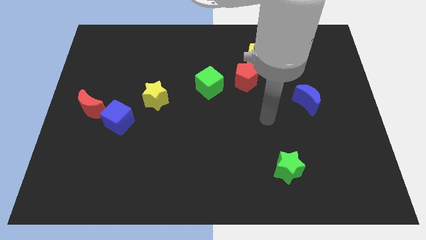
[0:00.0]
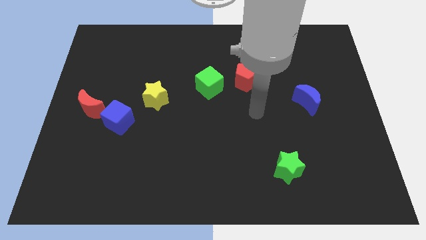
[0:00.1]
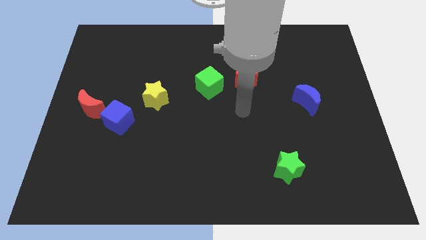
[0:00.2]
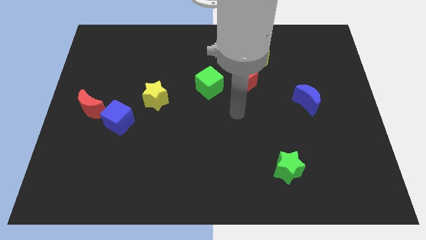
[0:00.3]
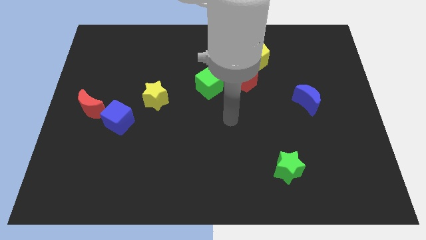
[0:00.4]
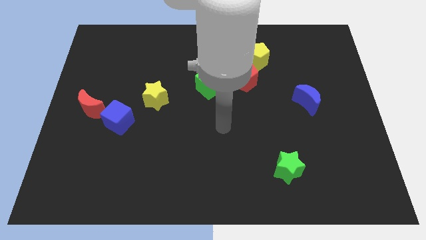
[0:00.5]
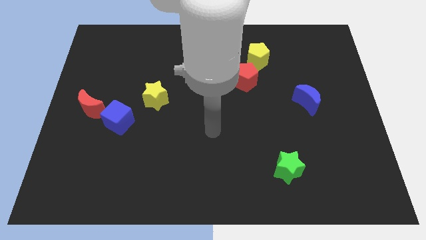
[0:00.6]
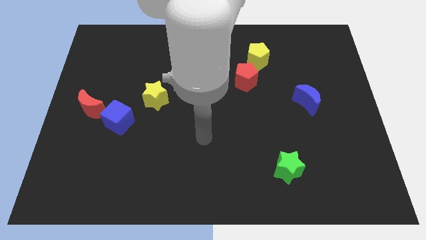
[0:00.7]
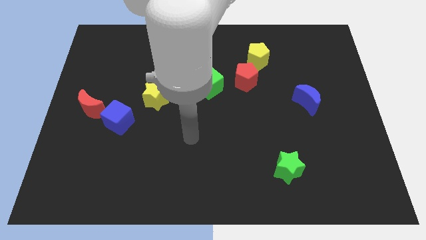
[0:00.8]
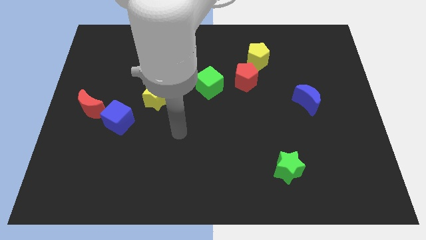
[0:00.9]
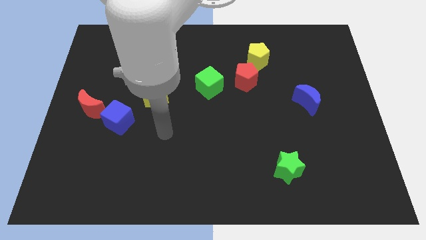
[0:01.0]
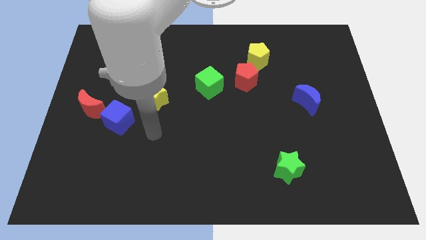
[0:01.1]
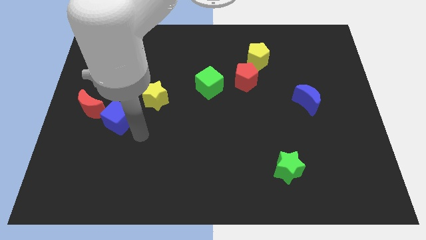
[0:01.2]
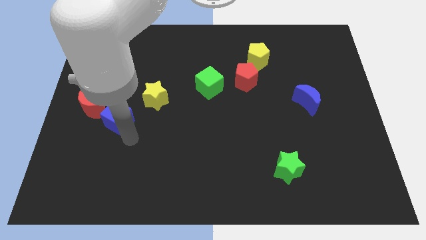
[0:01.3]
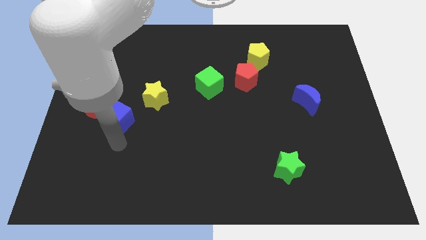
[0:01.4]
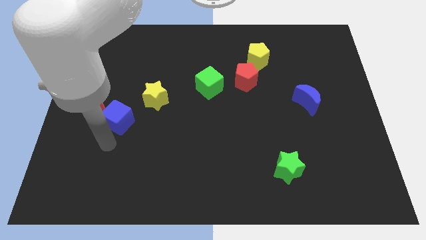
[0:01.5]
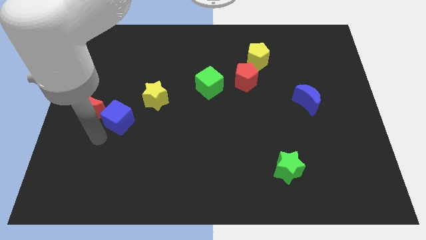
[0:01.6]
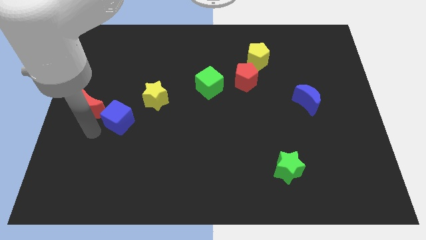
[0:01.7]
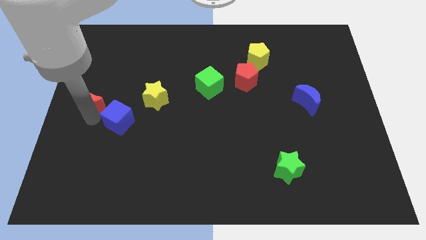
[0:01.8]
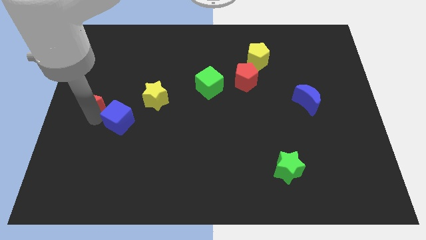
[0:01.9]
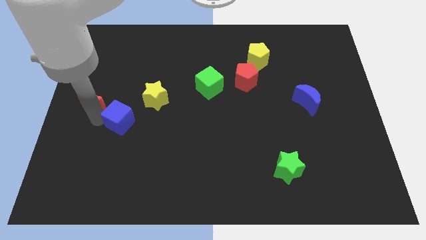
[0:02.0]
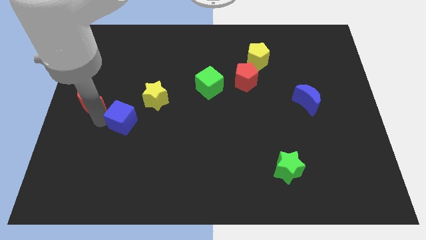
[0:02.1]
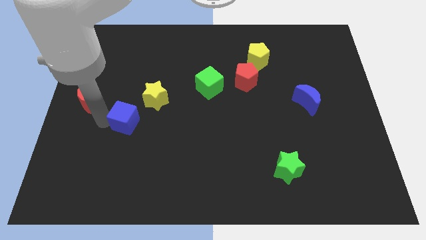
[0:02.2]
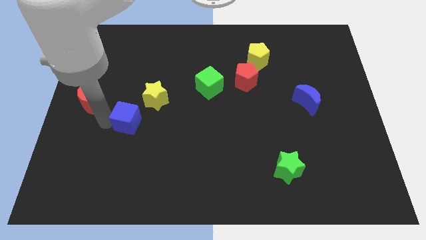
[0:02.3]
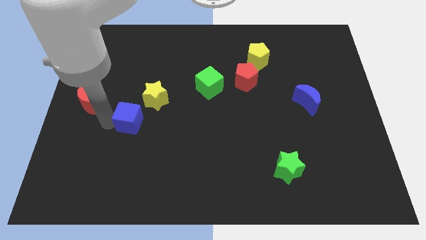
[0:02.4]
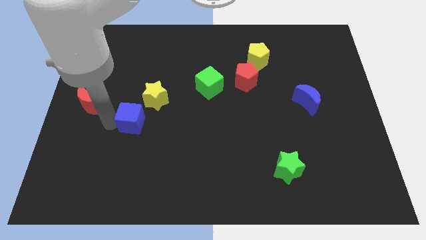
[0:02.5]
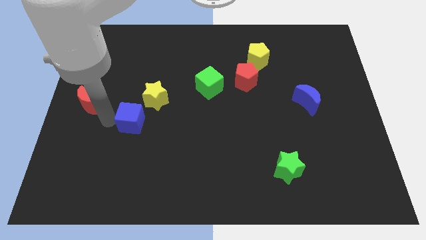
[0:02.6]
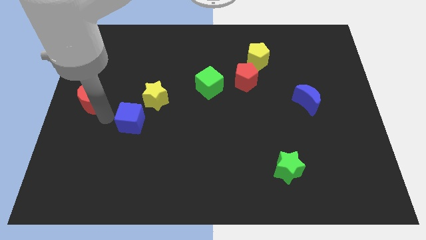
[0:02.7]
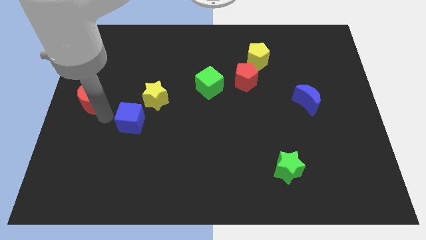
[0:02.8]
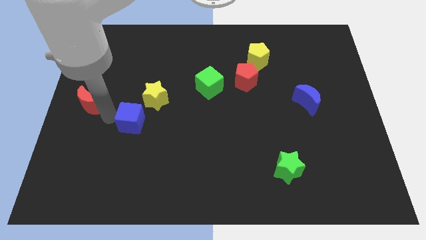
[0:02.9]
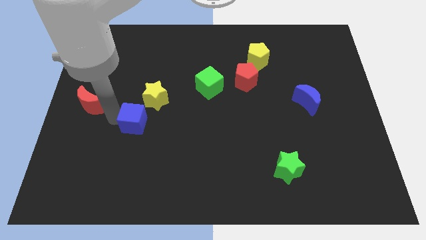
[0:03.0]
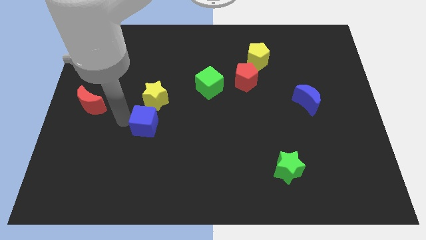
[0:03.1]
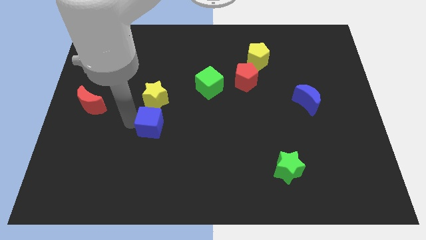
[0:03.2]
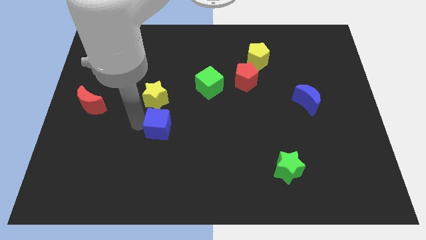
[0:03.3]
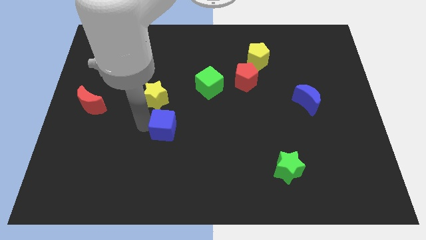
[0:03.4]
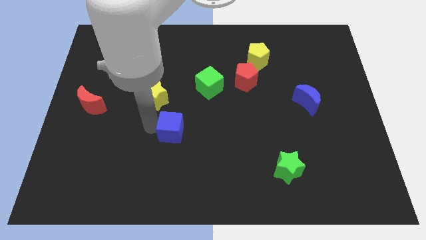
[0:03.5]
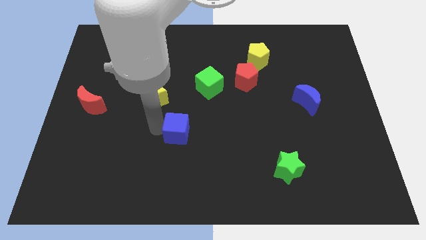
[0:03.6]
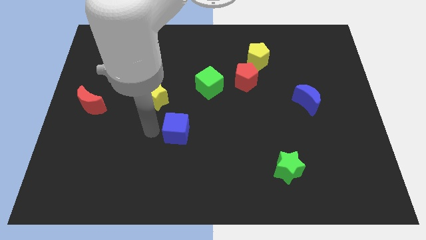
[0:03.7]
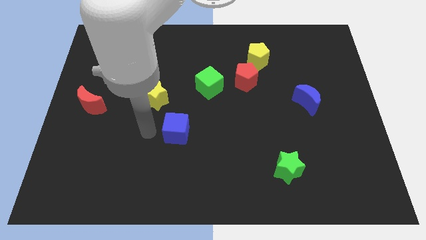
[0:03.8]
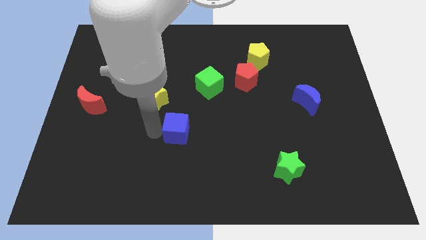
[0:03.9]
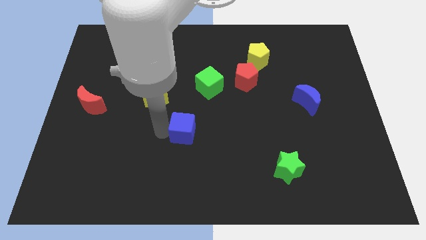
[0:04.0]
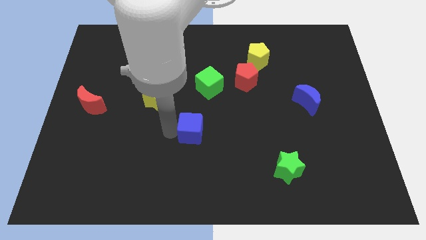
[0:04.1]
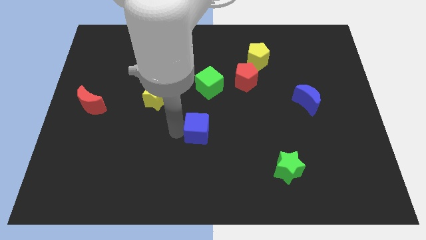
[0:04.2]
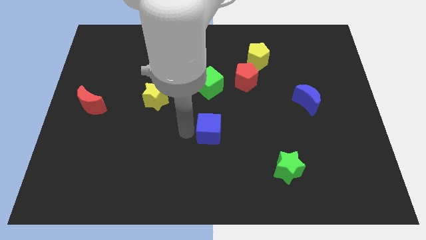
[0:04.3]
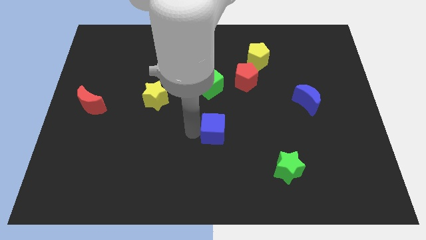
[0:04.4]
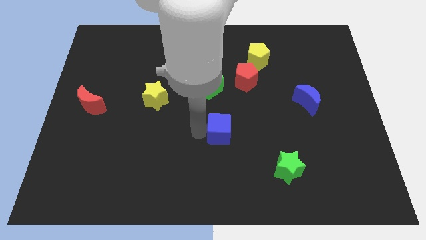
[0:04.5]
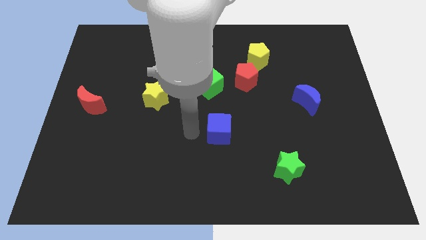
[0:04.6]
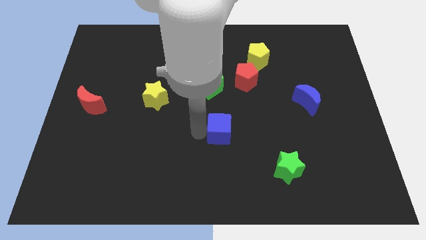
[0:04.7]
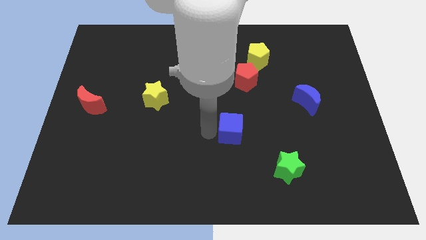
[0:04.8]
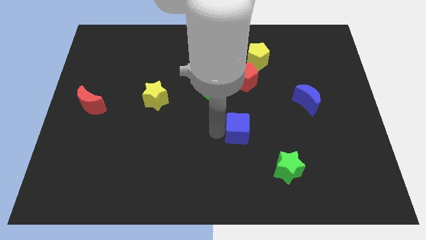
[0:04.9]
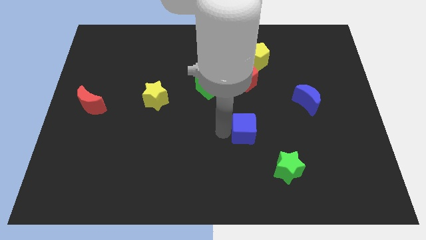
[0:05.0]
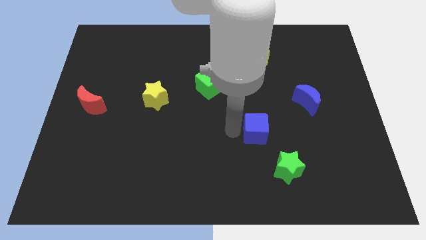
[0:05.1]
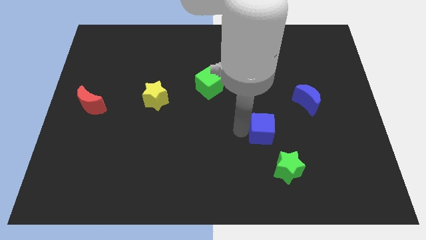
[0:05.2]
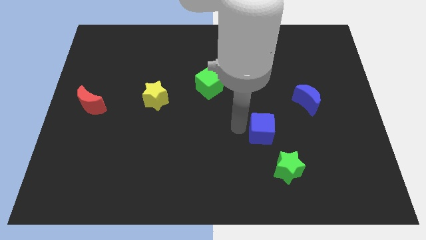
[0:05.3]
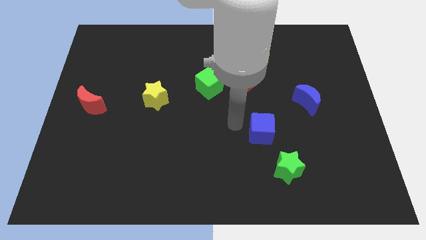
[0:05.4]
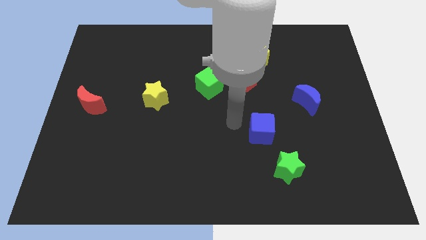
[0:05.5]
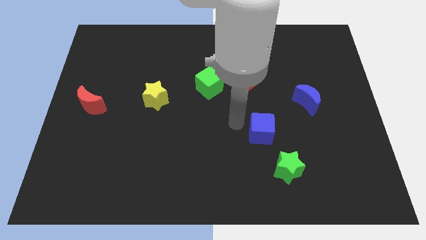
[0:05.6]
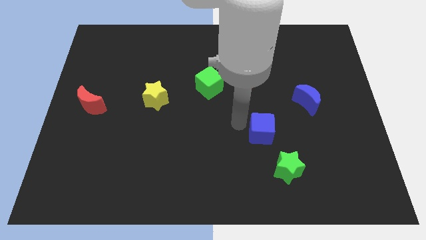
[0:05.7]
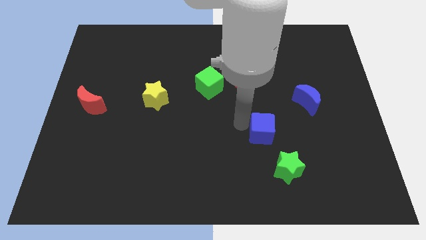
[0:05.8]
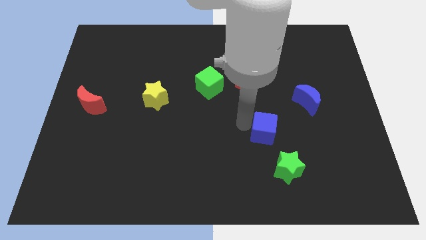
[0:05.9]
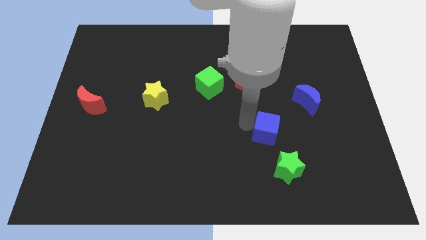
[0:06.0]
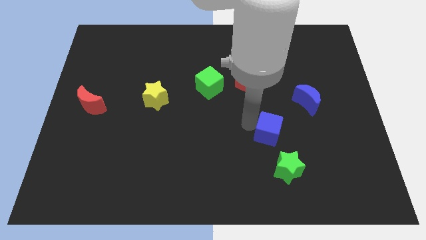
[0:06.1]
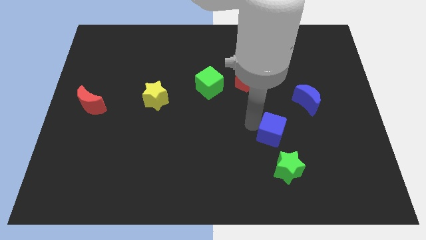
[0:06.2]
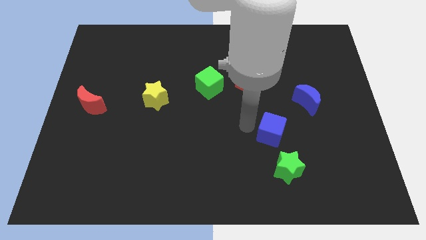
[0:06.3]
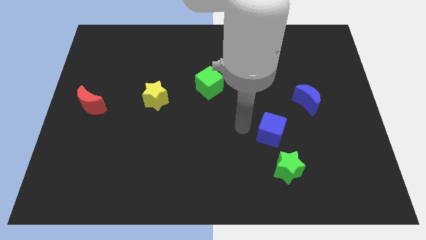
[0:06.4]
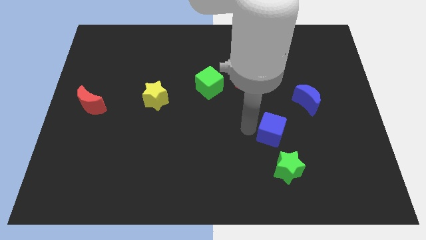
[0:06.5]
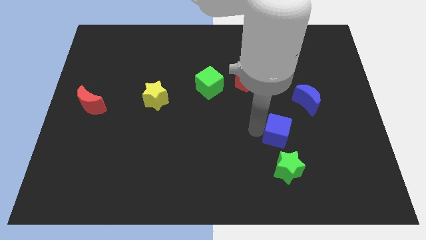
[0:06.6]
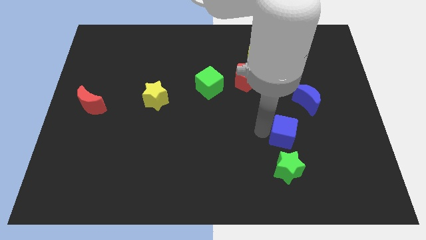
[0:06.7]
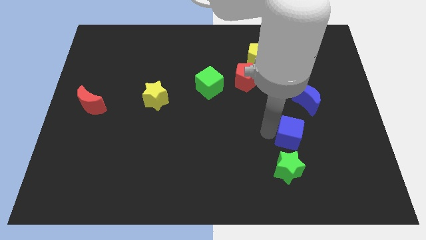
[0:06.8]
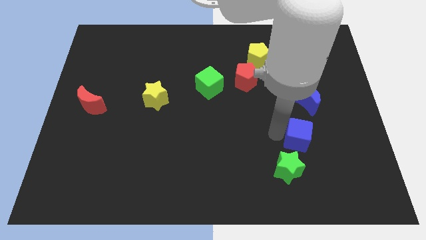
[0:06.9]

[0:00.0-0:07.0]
push the blue cube to the bottom side of the blue moon
